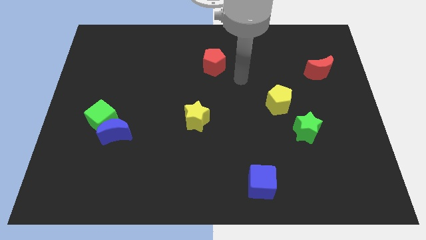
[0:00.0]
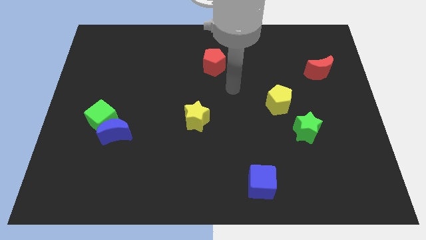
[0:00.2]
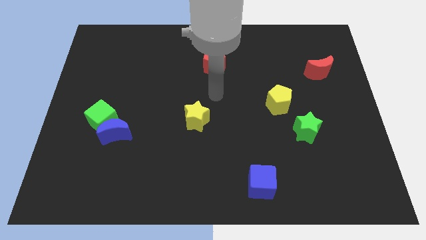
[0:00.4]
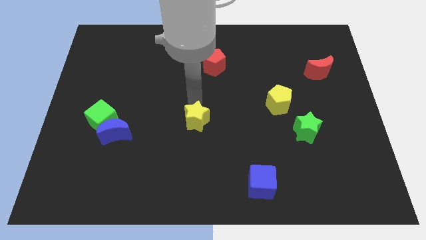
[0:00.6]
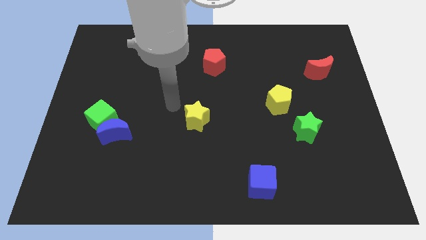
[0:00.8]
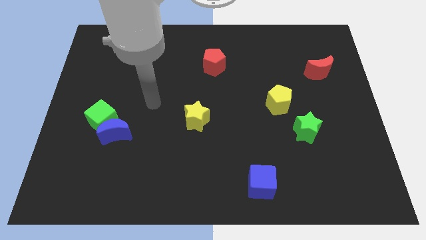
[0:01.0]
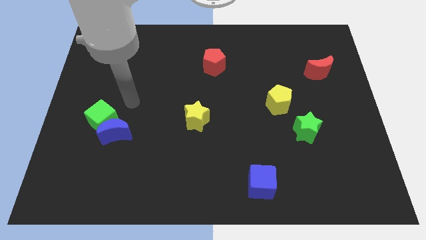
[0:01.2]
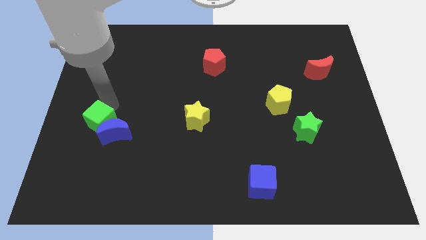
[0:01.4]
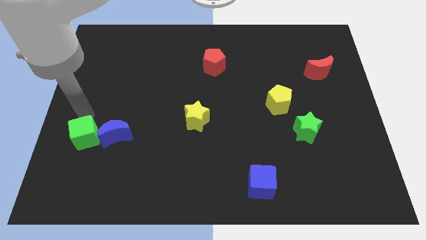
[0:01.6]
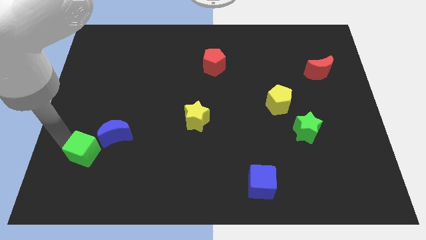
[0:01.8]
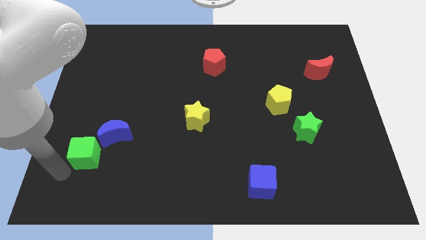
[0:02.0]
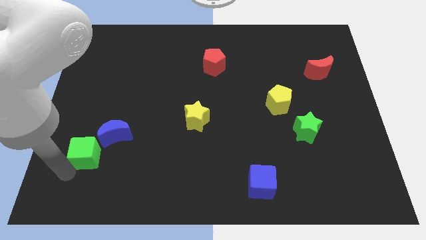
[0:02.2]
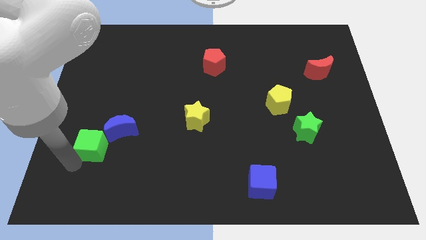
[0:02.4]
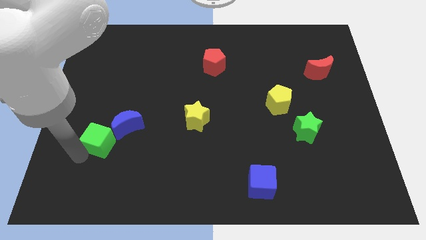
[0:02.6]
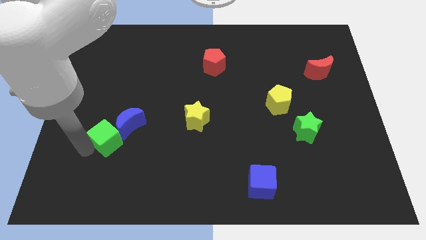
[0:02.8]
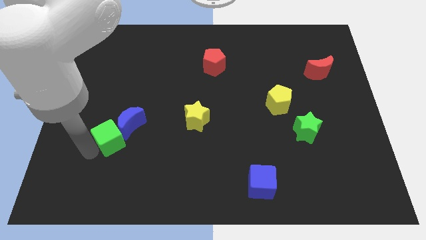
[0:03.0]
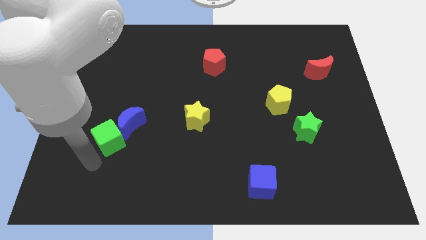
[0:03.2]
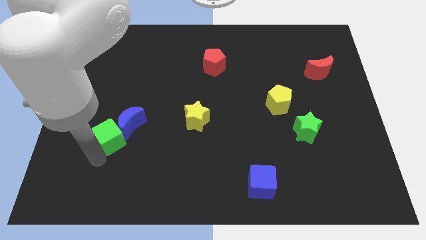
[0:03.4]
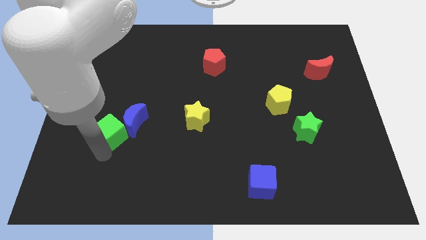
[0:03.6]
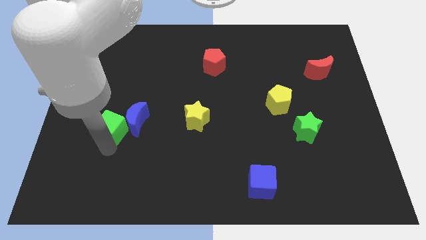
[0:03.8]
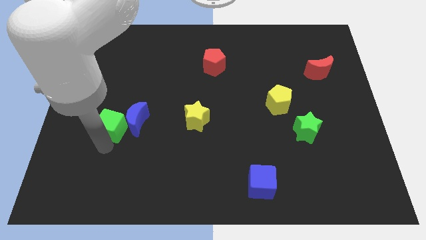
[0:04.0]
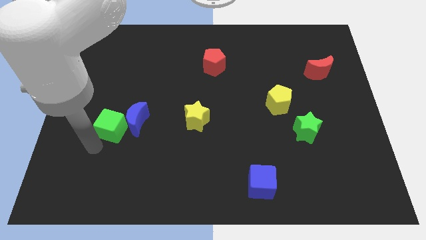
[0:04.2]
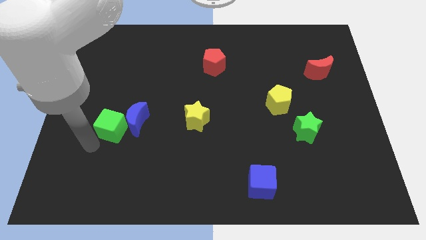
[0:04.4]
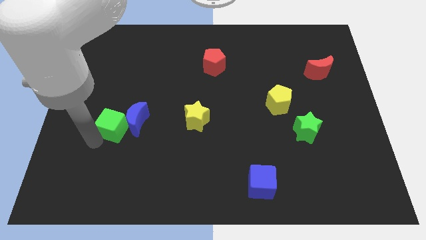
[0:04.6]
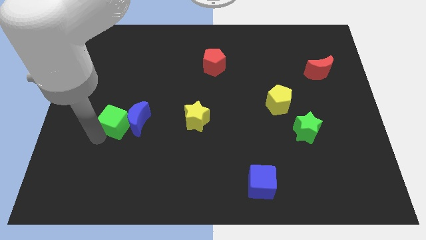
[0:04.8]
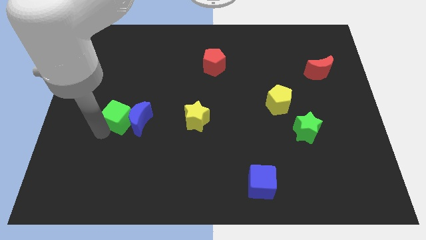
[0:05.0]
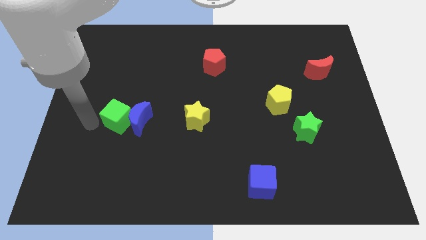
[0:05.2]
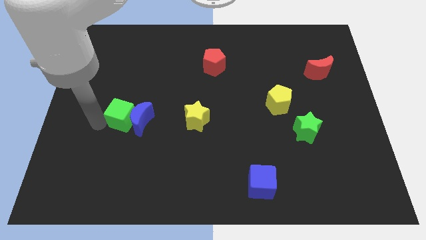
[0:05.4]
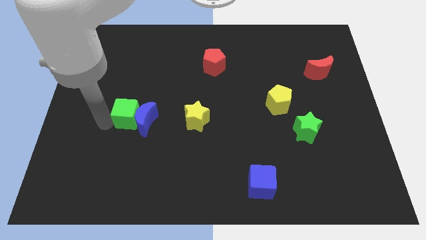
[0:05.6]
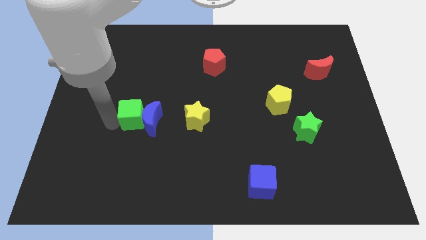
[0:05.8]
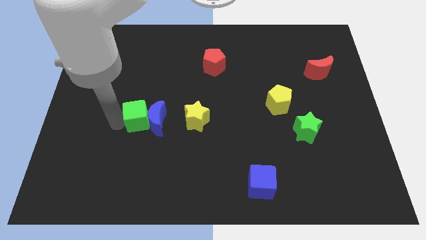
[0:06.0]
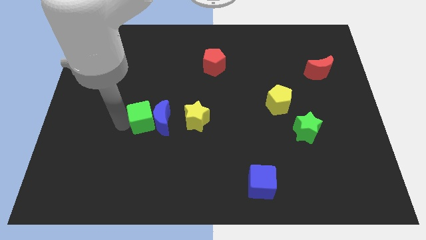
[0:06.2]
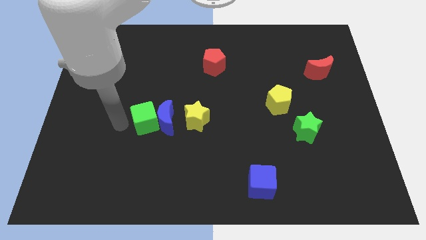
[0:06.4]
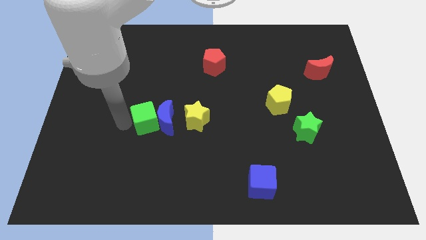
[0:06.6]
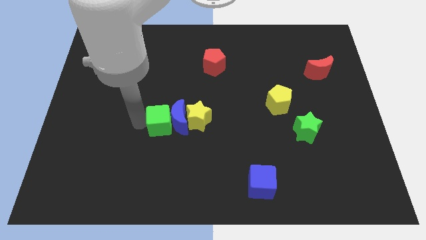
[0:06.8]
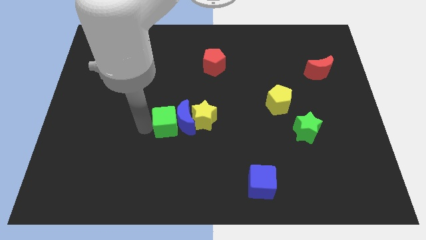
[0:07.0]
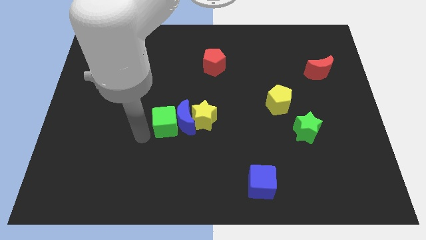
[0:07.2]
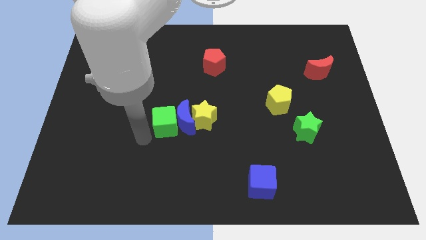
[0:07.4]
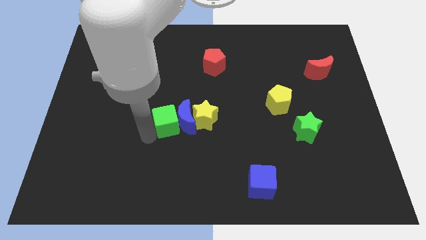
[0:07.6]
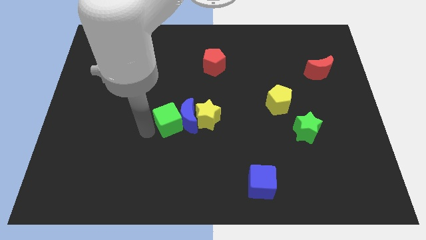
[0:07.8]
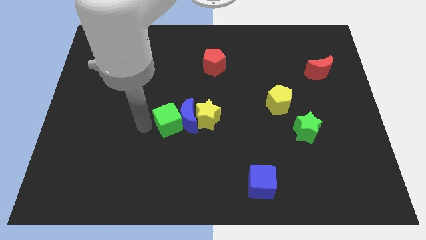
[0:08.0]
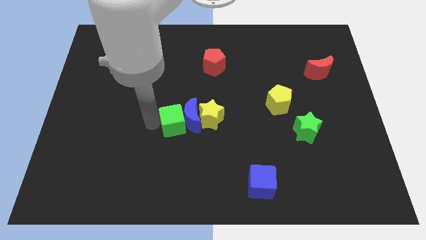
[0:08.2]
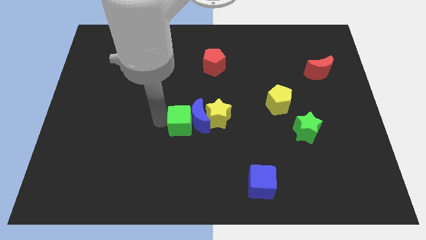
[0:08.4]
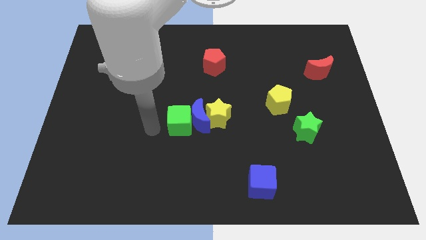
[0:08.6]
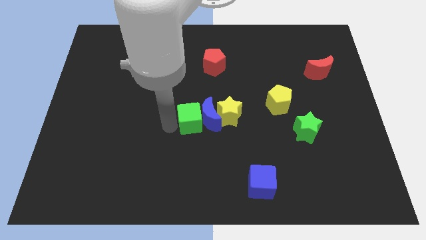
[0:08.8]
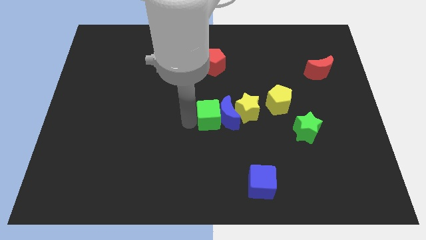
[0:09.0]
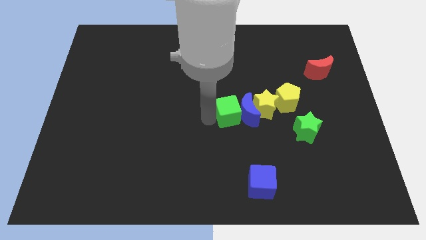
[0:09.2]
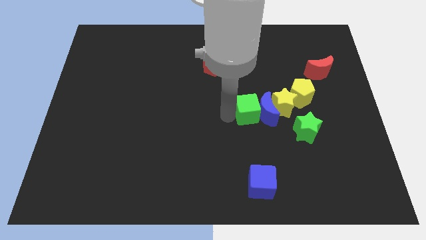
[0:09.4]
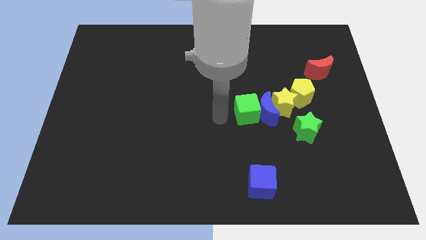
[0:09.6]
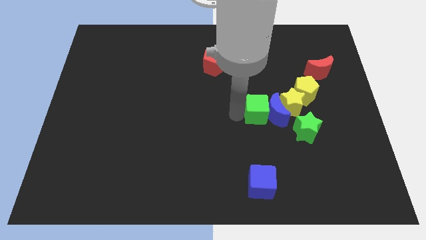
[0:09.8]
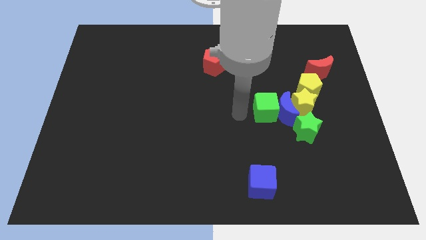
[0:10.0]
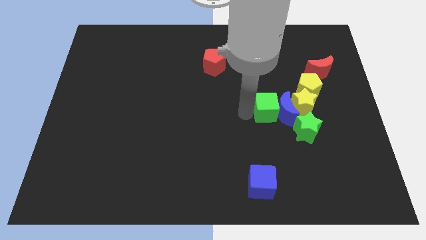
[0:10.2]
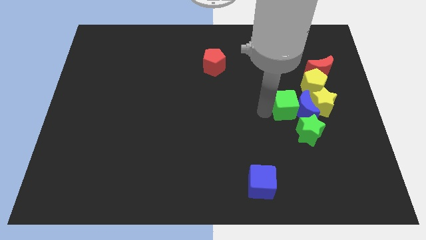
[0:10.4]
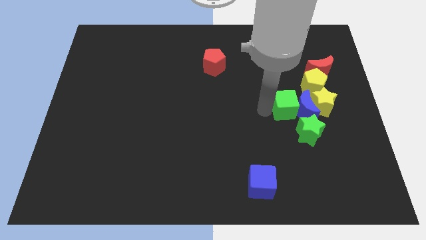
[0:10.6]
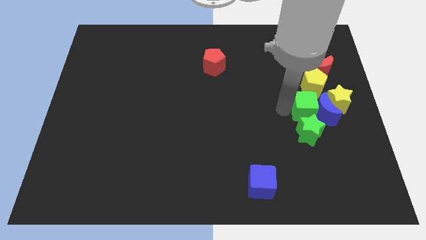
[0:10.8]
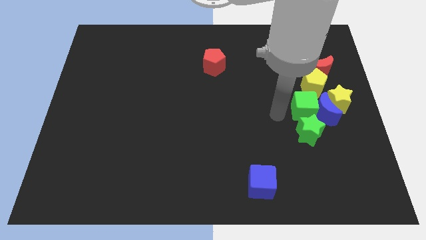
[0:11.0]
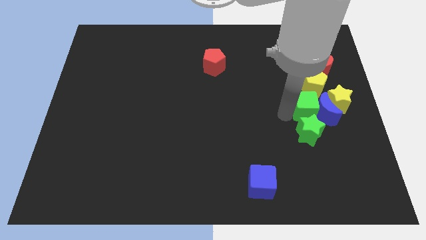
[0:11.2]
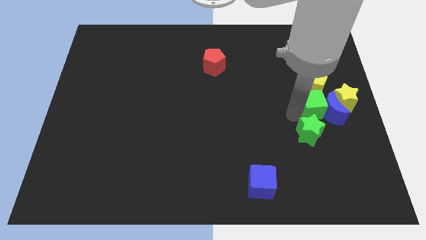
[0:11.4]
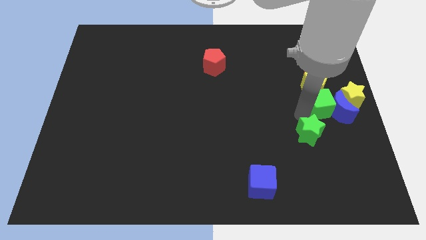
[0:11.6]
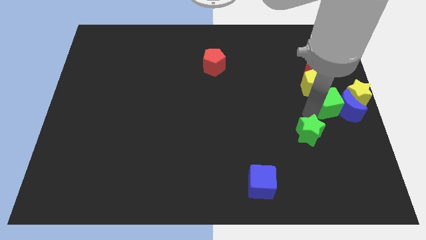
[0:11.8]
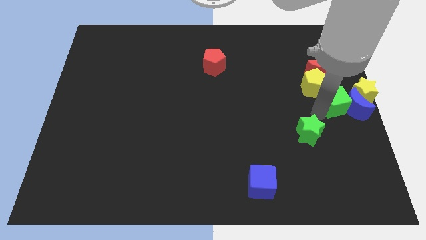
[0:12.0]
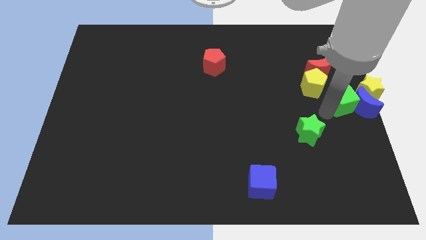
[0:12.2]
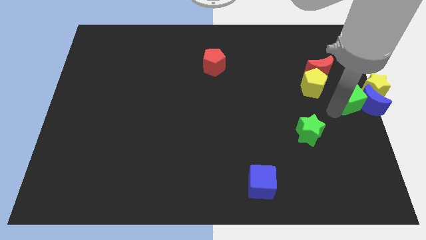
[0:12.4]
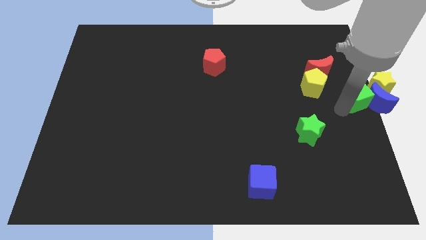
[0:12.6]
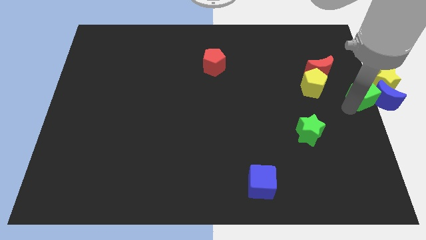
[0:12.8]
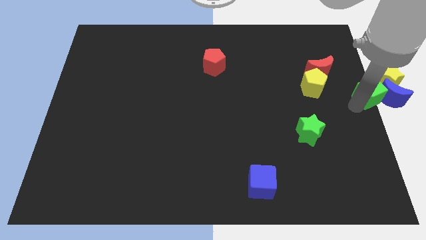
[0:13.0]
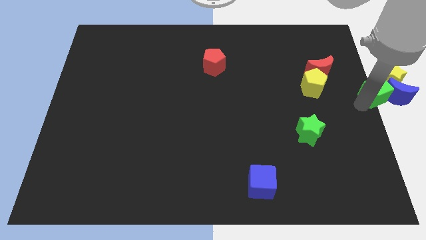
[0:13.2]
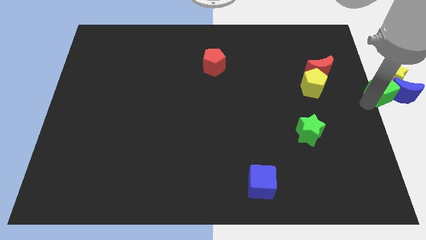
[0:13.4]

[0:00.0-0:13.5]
put the green cube next to the yellow star

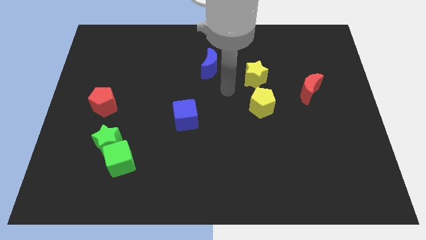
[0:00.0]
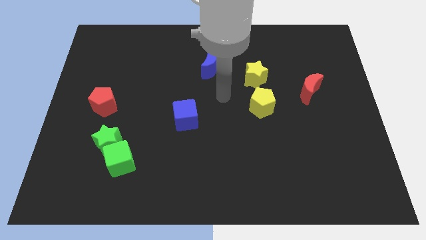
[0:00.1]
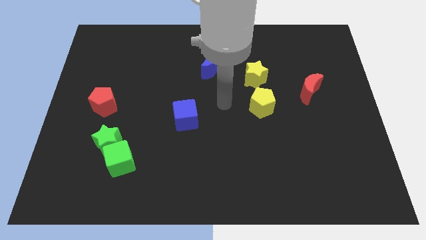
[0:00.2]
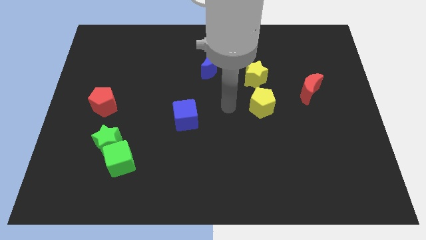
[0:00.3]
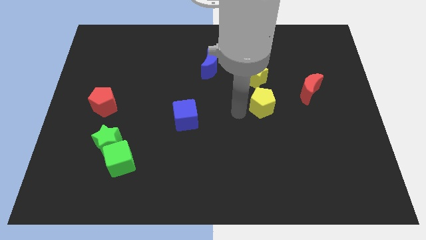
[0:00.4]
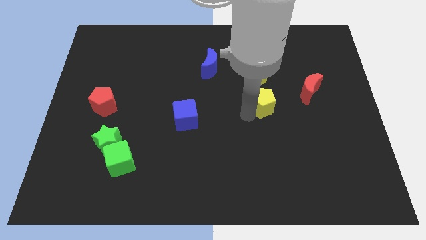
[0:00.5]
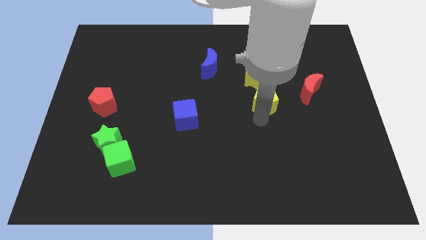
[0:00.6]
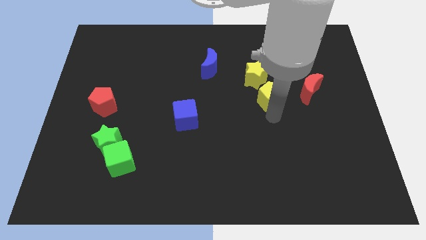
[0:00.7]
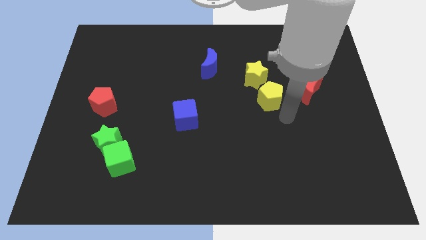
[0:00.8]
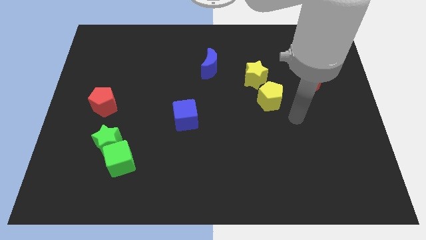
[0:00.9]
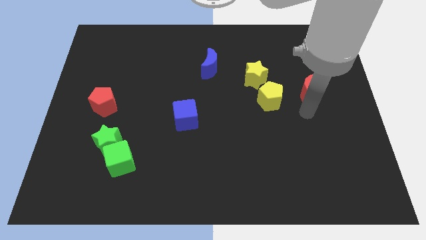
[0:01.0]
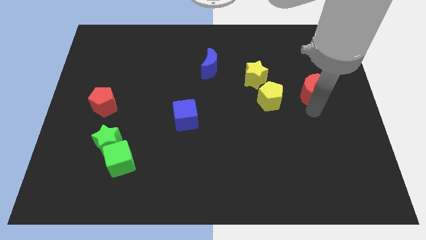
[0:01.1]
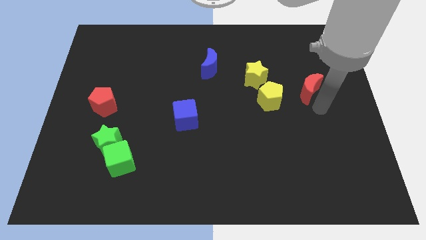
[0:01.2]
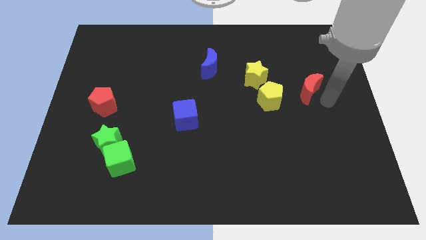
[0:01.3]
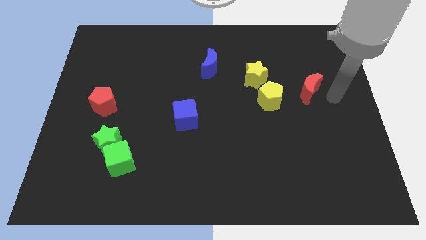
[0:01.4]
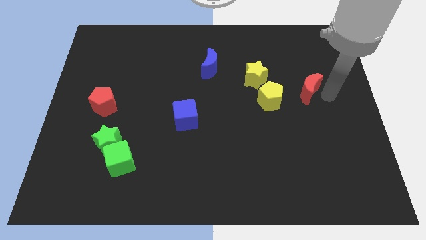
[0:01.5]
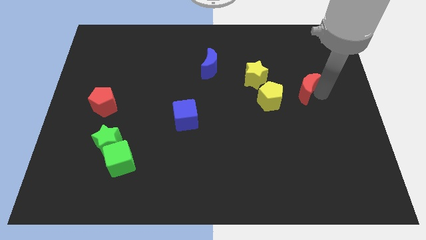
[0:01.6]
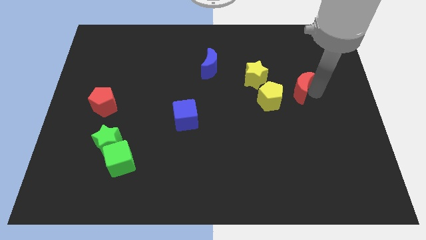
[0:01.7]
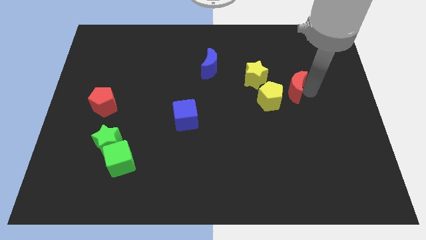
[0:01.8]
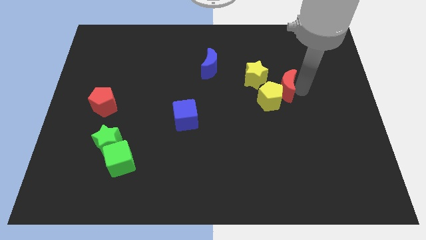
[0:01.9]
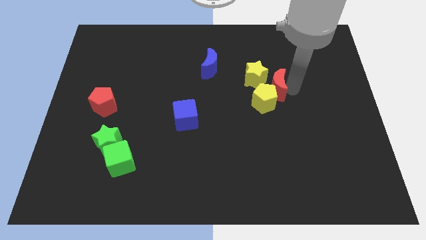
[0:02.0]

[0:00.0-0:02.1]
slide the red moon towards the yellow star
